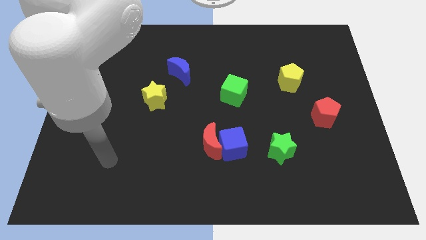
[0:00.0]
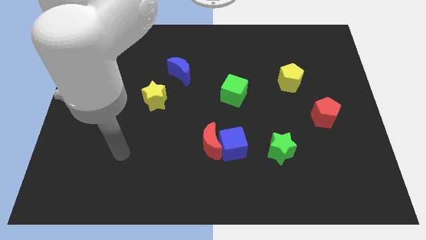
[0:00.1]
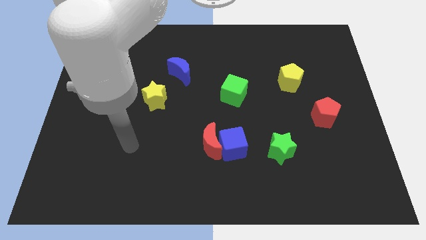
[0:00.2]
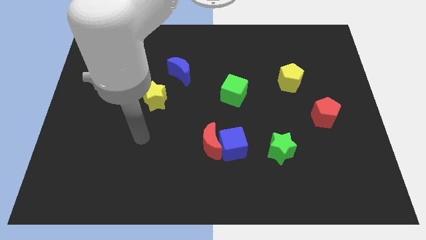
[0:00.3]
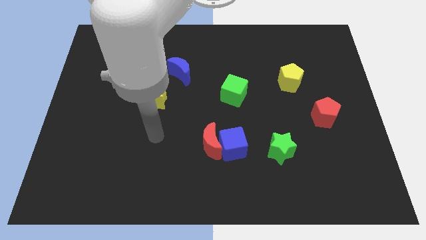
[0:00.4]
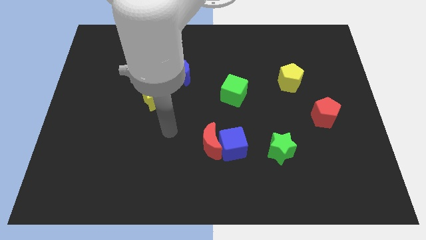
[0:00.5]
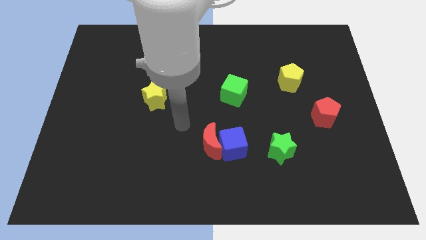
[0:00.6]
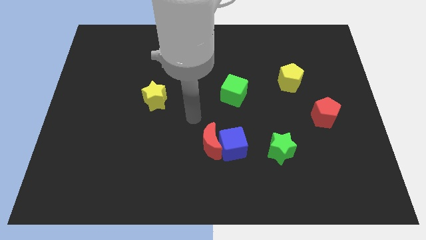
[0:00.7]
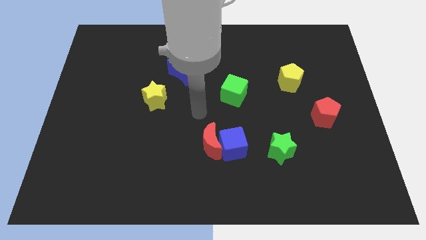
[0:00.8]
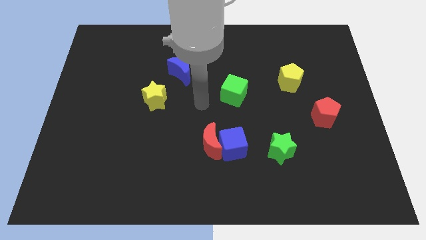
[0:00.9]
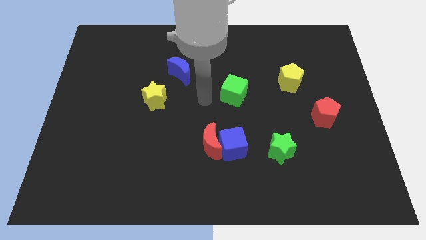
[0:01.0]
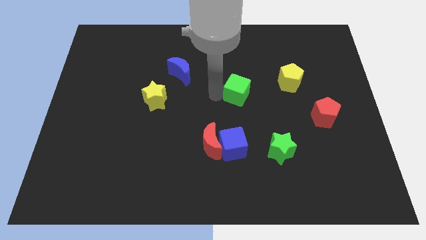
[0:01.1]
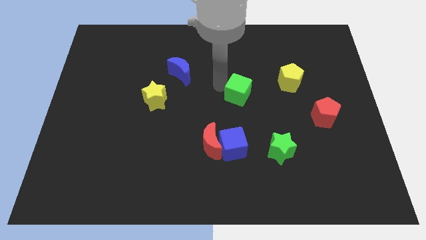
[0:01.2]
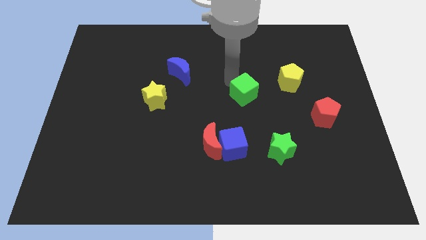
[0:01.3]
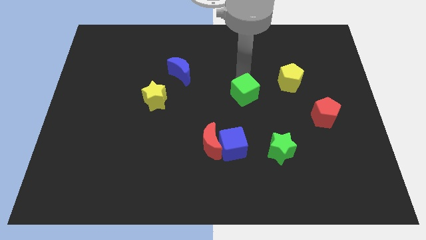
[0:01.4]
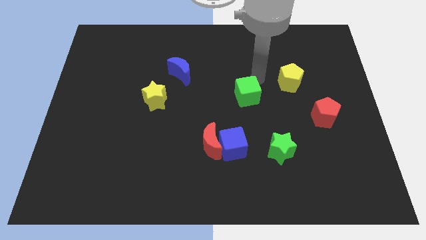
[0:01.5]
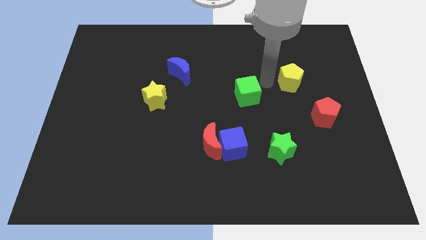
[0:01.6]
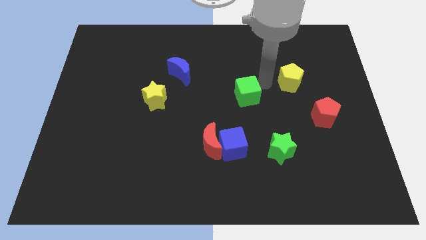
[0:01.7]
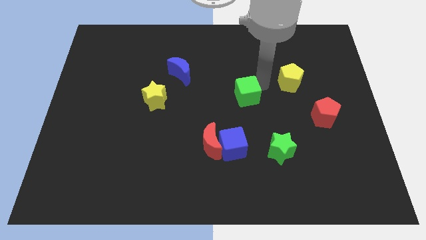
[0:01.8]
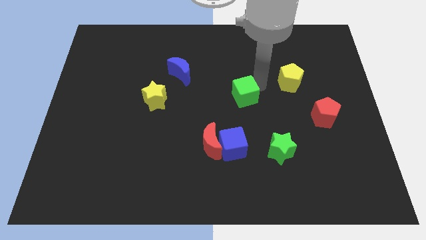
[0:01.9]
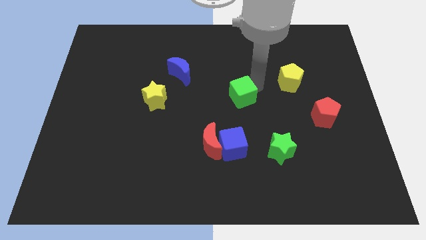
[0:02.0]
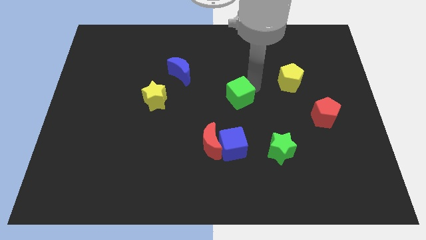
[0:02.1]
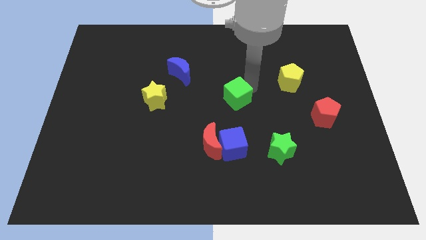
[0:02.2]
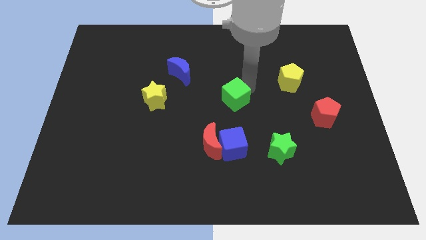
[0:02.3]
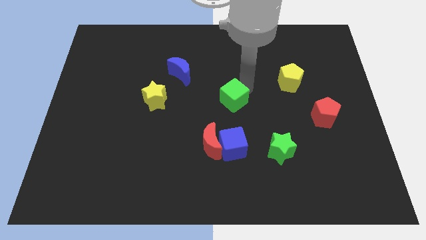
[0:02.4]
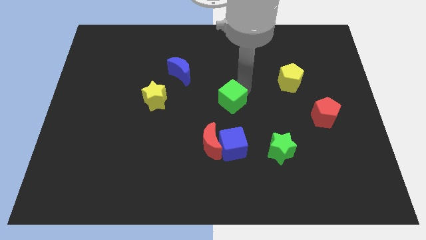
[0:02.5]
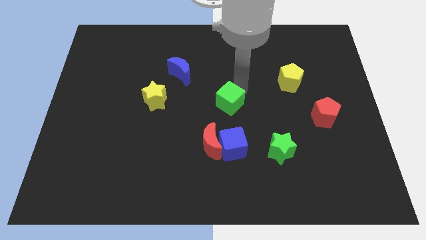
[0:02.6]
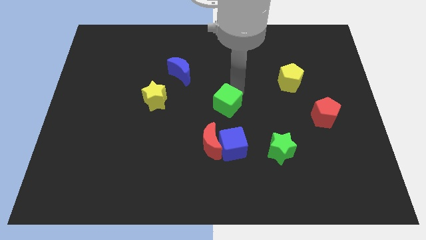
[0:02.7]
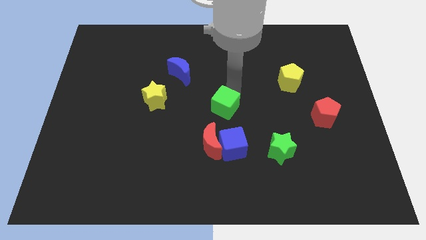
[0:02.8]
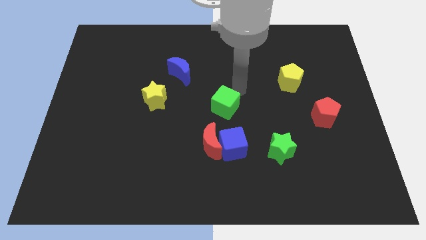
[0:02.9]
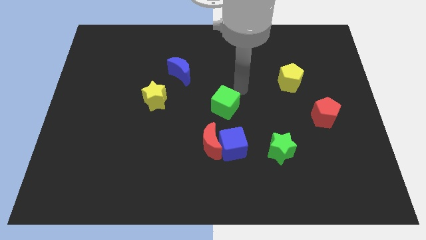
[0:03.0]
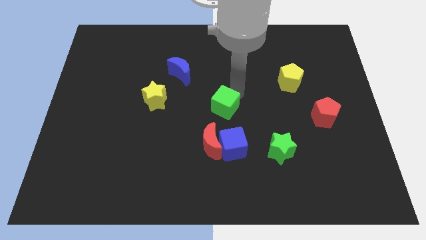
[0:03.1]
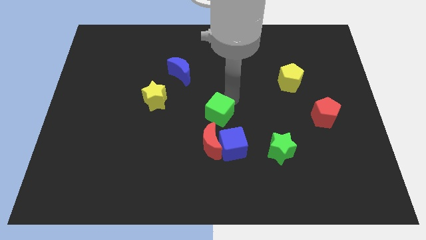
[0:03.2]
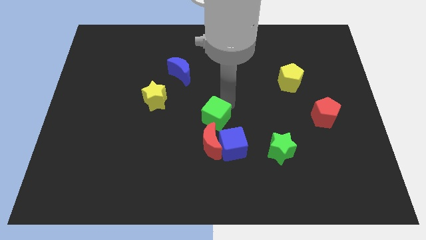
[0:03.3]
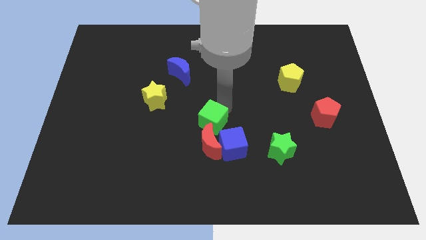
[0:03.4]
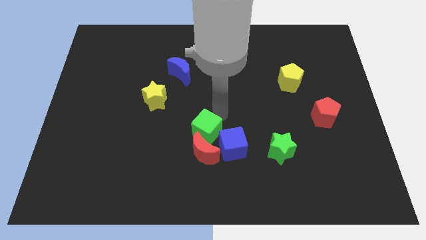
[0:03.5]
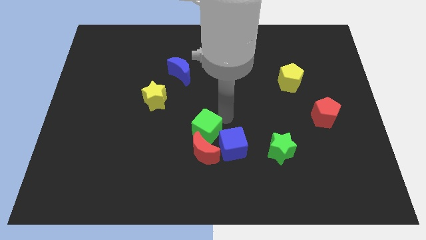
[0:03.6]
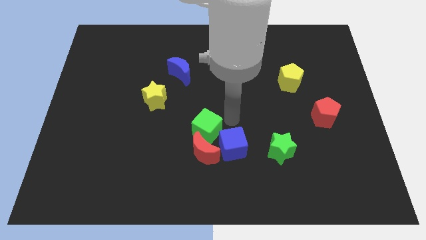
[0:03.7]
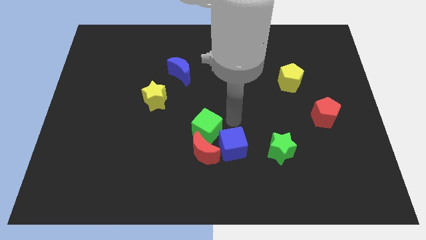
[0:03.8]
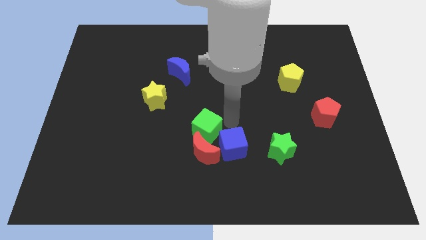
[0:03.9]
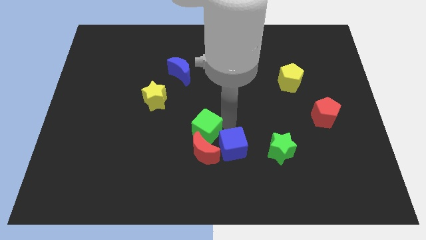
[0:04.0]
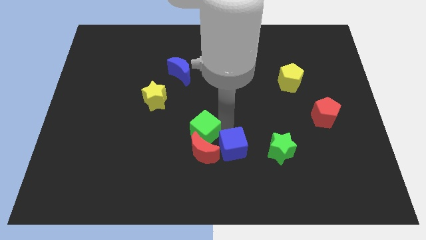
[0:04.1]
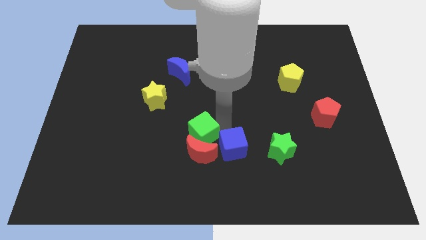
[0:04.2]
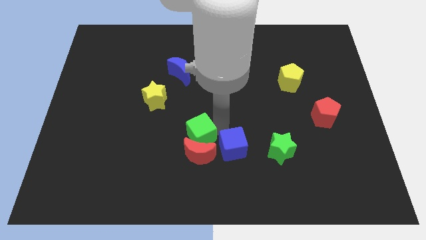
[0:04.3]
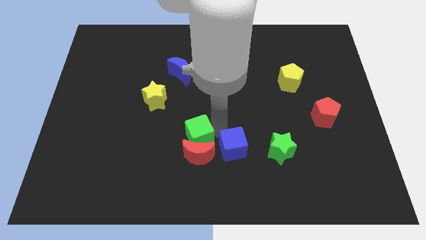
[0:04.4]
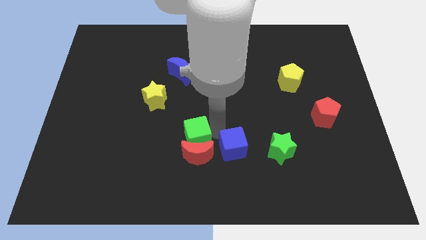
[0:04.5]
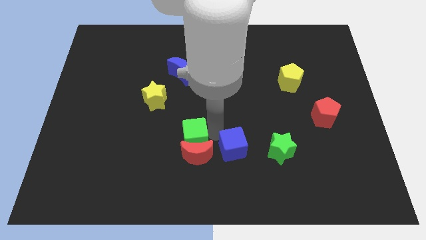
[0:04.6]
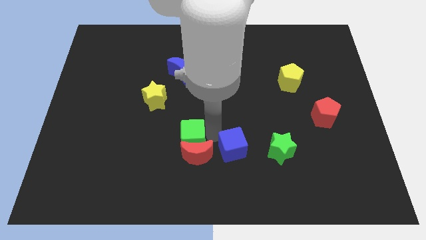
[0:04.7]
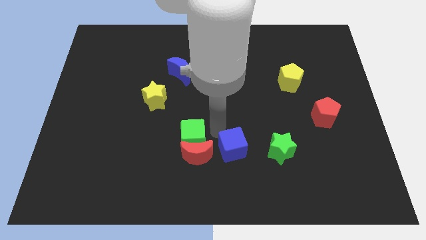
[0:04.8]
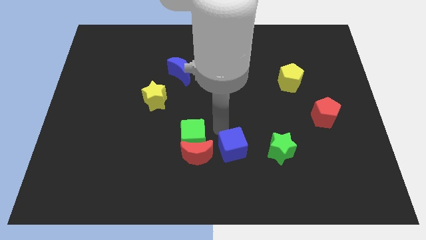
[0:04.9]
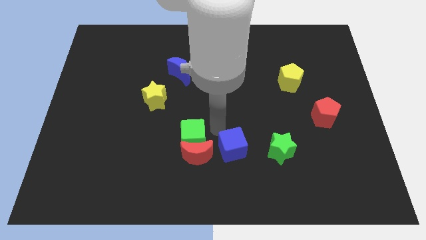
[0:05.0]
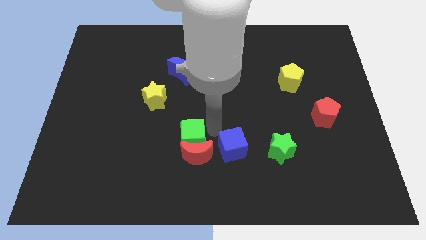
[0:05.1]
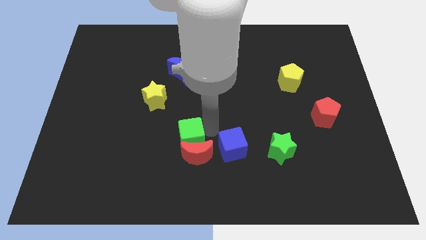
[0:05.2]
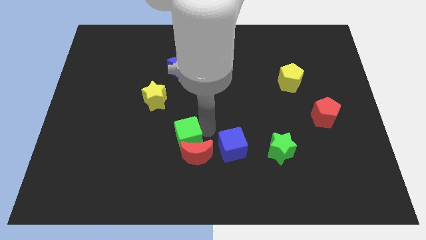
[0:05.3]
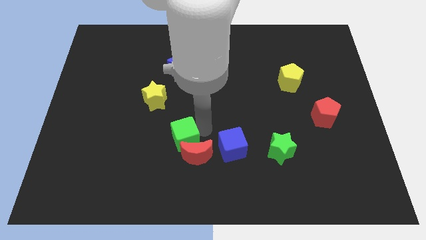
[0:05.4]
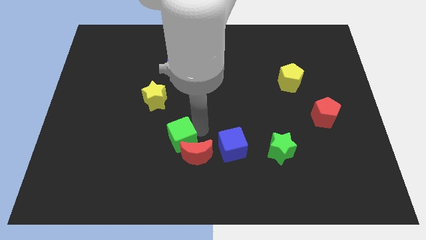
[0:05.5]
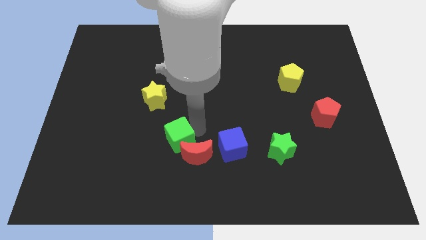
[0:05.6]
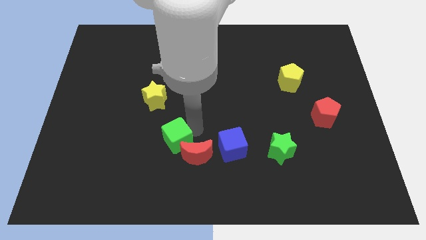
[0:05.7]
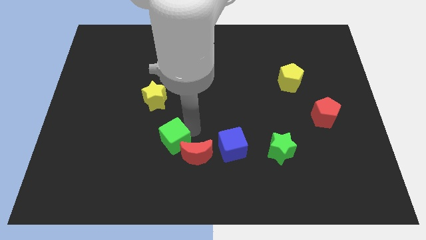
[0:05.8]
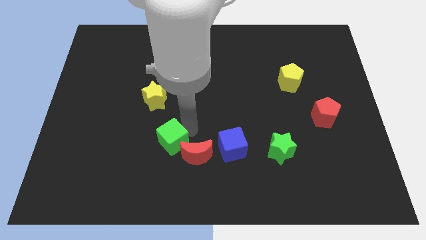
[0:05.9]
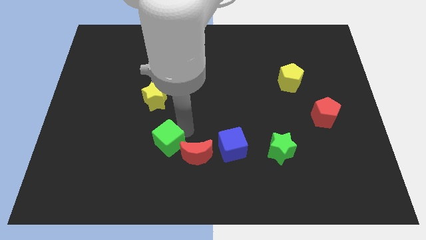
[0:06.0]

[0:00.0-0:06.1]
move the green cube down and then to the left

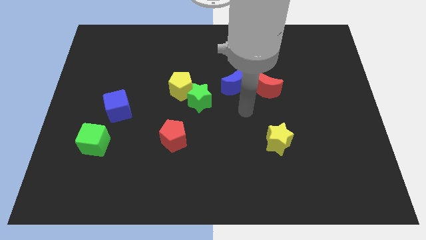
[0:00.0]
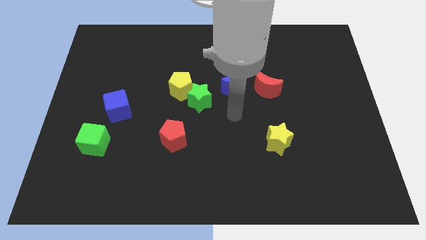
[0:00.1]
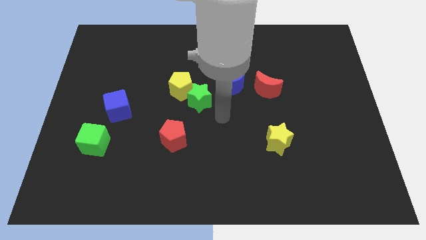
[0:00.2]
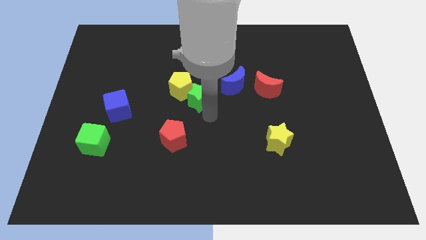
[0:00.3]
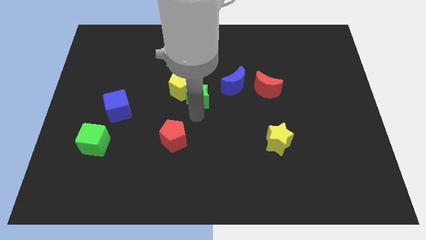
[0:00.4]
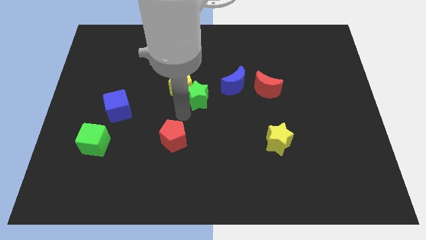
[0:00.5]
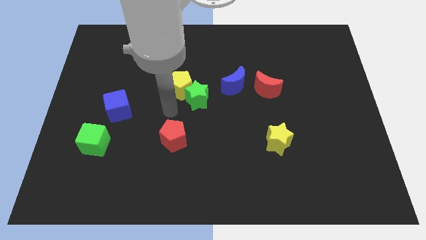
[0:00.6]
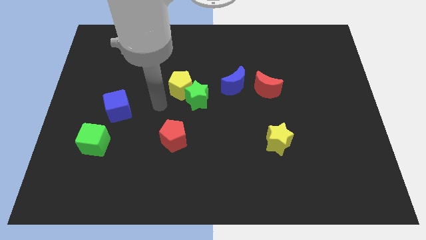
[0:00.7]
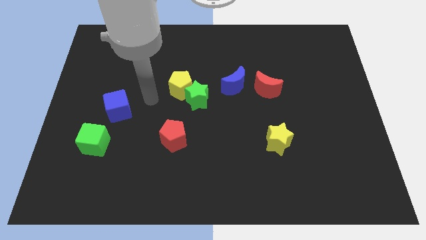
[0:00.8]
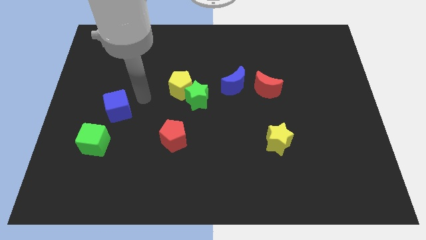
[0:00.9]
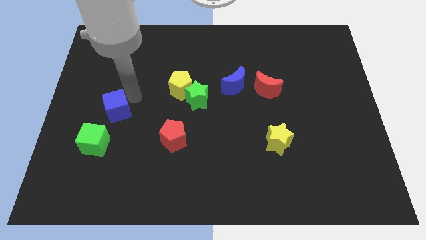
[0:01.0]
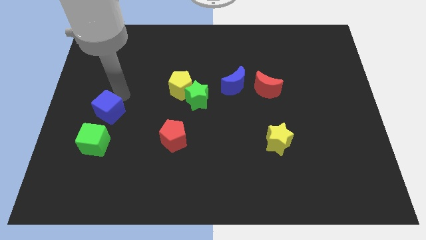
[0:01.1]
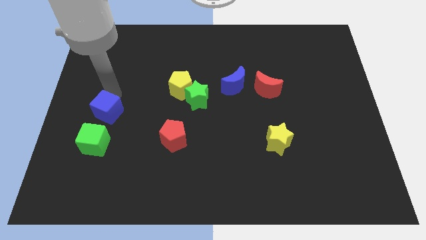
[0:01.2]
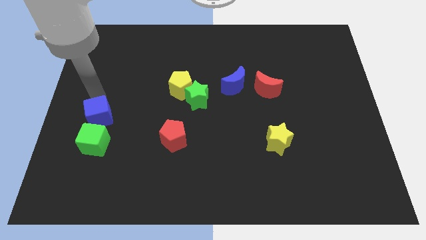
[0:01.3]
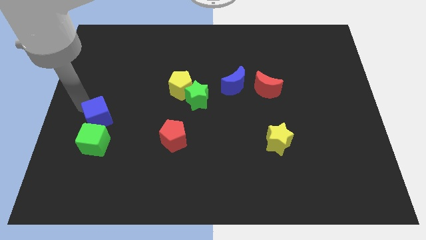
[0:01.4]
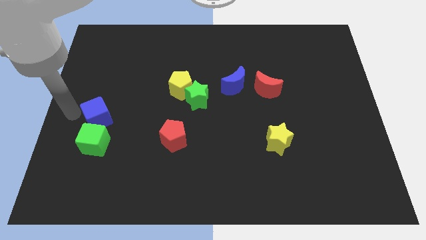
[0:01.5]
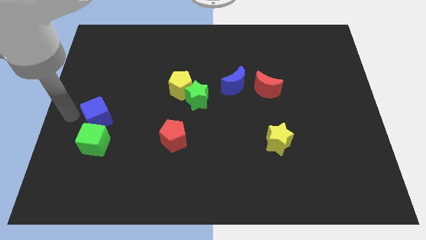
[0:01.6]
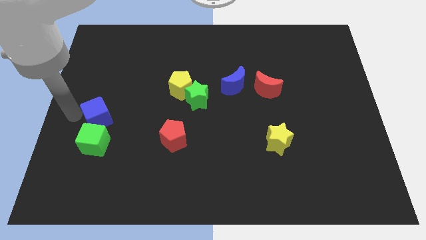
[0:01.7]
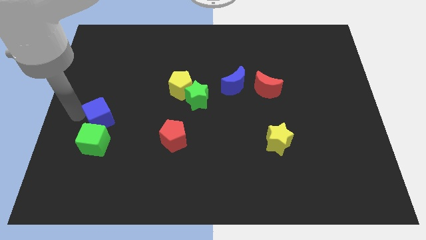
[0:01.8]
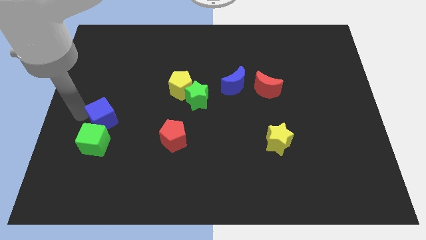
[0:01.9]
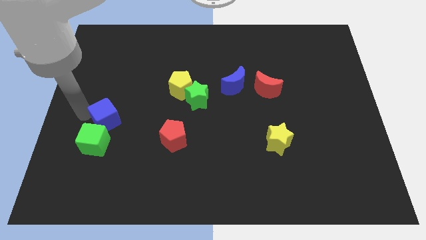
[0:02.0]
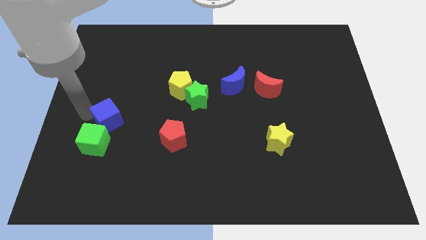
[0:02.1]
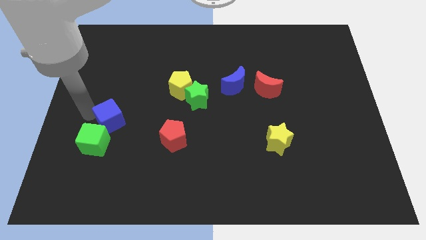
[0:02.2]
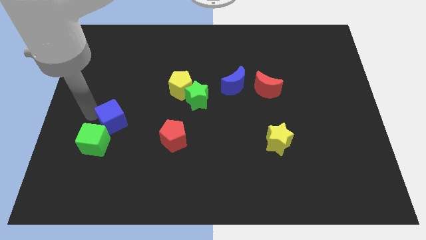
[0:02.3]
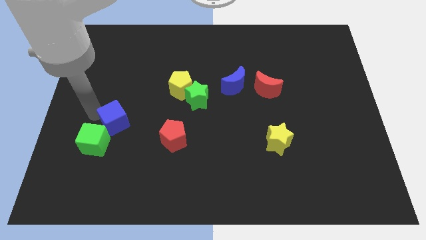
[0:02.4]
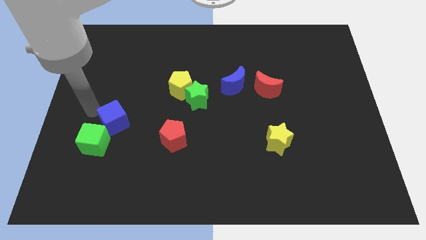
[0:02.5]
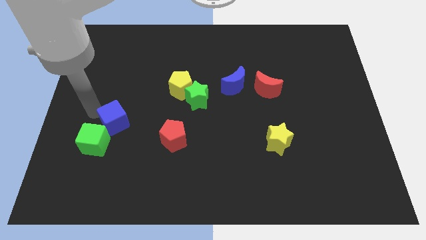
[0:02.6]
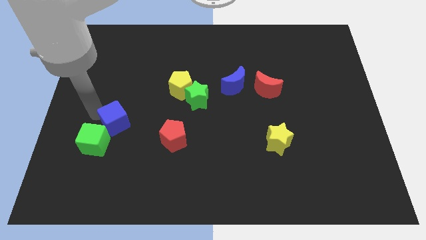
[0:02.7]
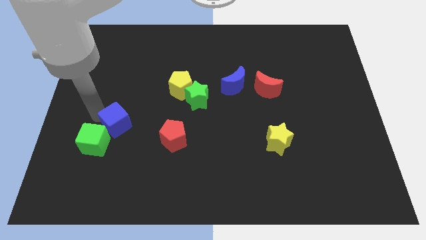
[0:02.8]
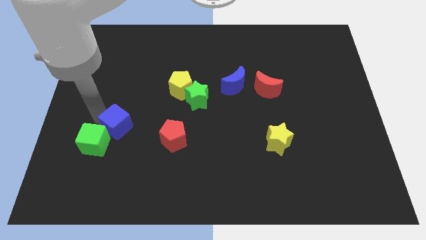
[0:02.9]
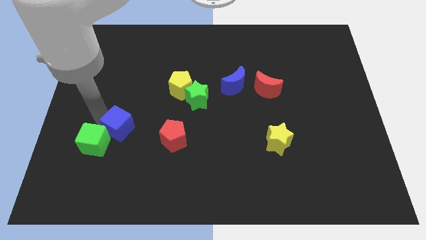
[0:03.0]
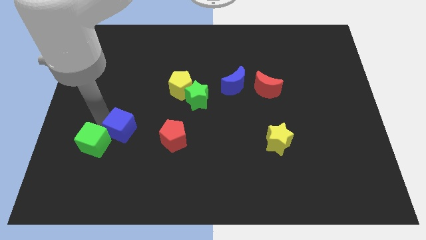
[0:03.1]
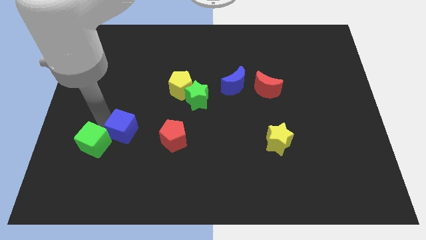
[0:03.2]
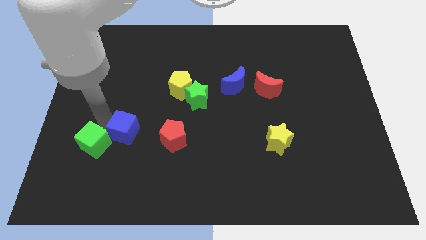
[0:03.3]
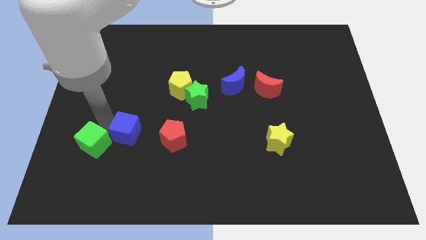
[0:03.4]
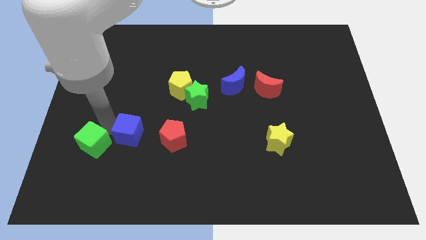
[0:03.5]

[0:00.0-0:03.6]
push the blue cube a little bit downwards and then right
